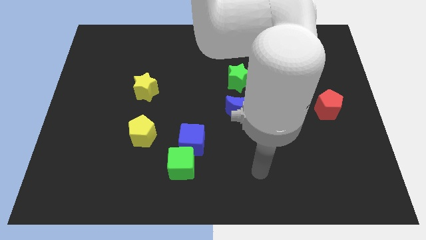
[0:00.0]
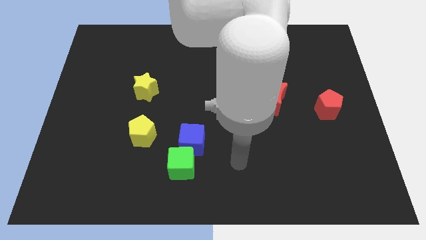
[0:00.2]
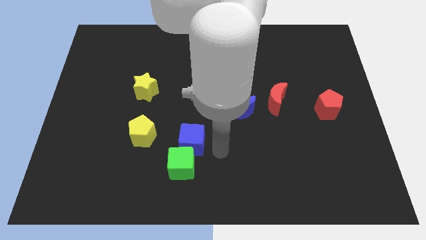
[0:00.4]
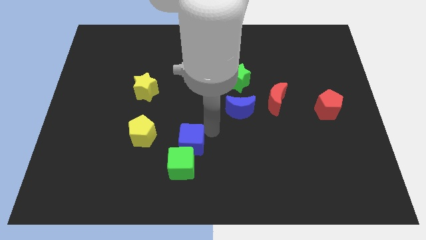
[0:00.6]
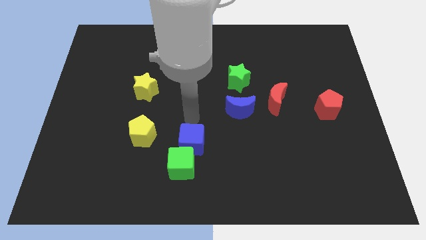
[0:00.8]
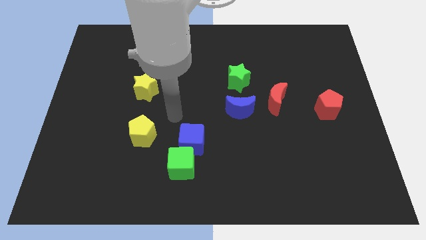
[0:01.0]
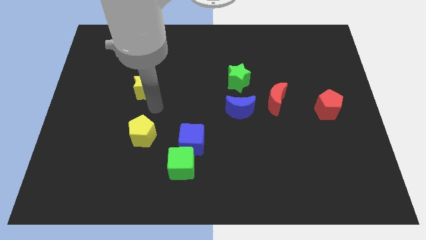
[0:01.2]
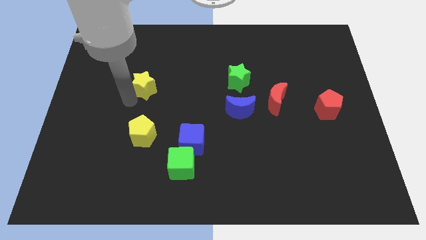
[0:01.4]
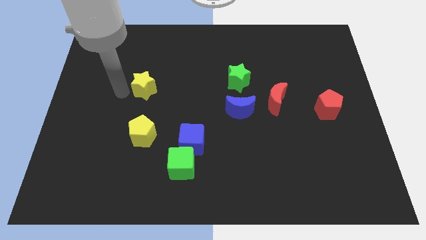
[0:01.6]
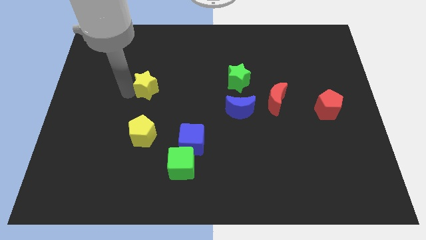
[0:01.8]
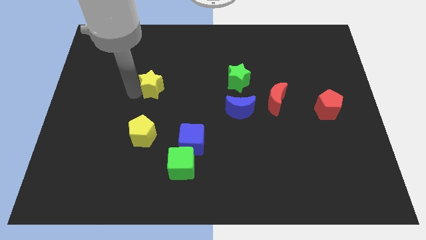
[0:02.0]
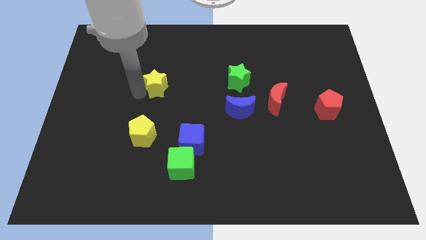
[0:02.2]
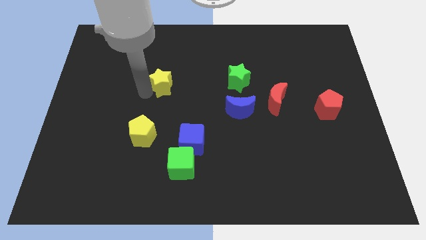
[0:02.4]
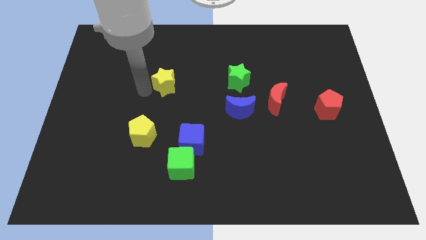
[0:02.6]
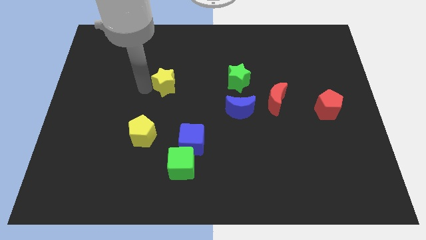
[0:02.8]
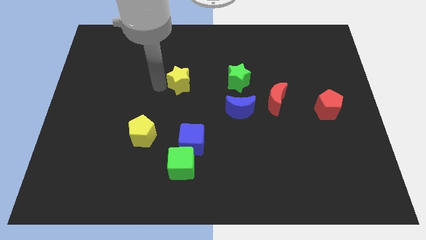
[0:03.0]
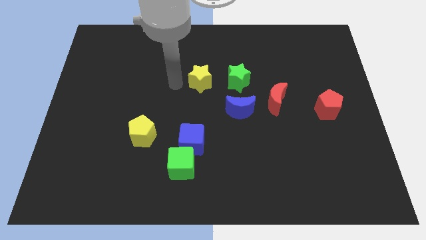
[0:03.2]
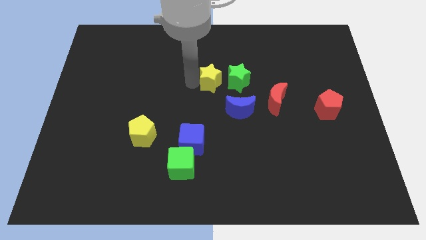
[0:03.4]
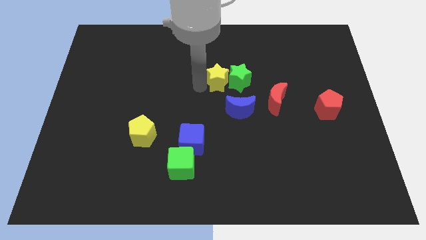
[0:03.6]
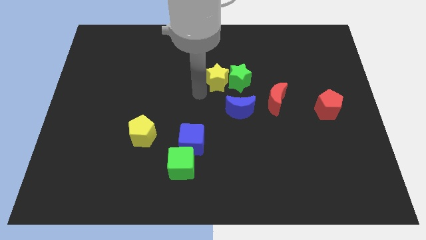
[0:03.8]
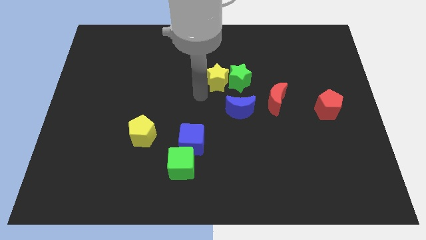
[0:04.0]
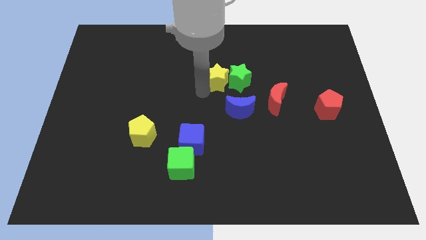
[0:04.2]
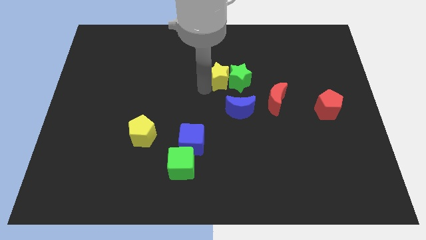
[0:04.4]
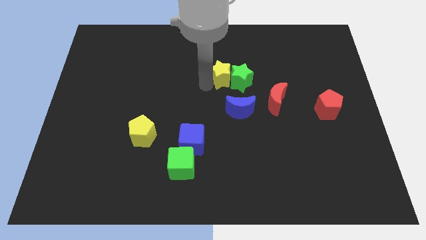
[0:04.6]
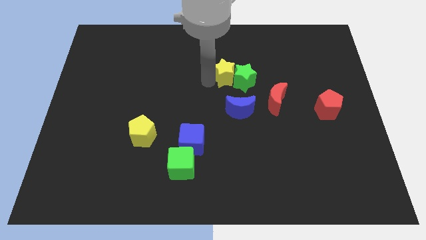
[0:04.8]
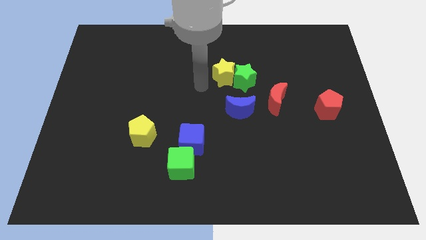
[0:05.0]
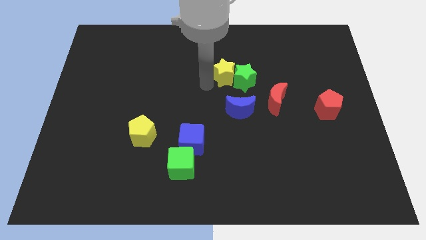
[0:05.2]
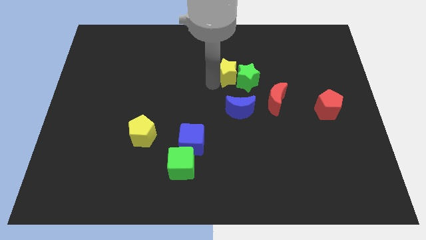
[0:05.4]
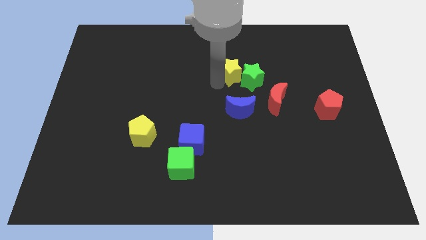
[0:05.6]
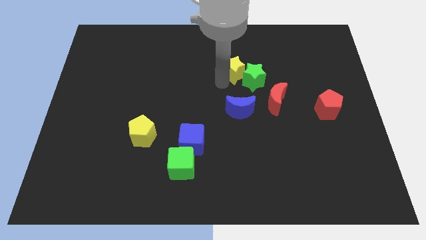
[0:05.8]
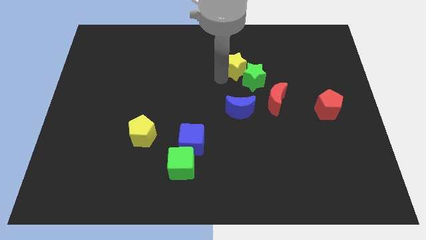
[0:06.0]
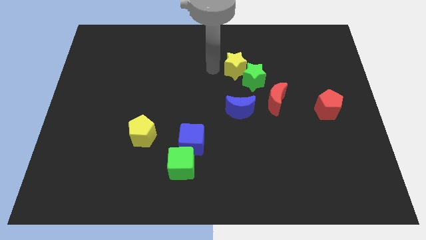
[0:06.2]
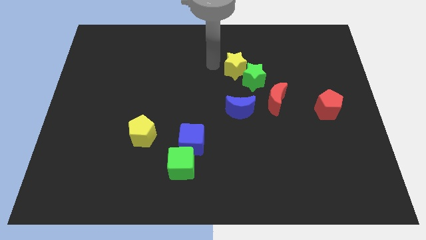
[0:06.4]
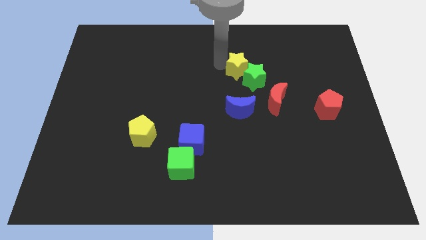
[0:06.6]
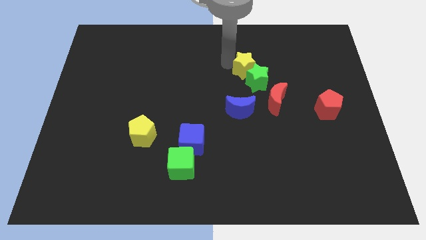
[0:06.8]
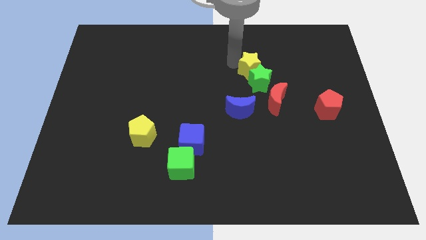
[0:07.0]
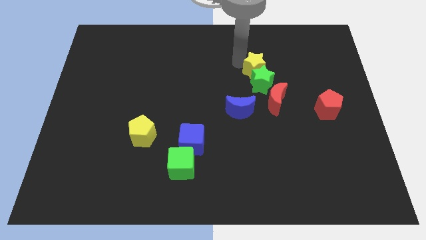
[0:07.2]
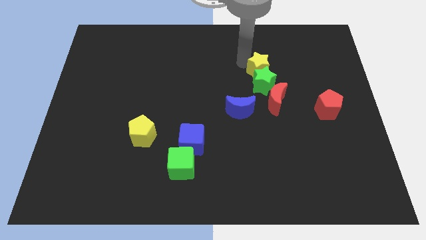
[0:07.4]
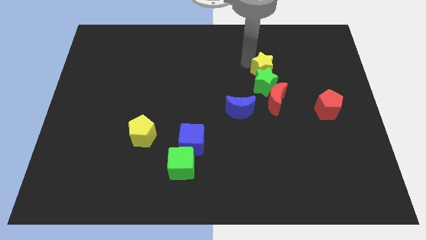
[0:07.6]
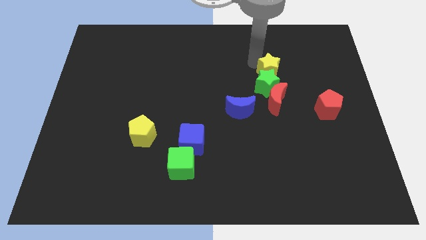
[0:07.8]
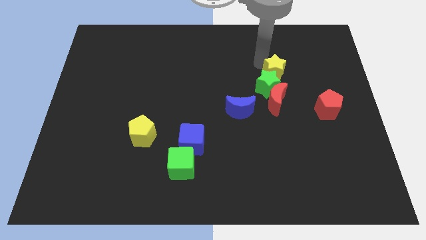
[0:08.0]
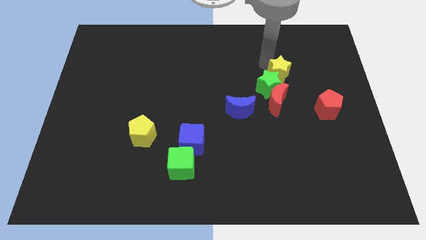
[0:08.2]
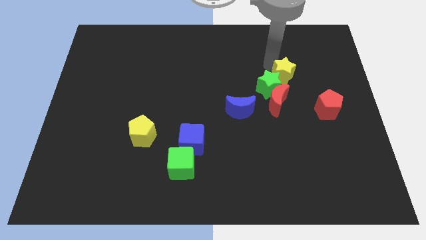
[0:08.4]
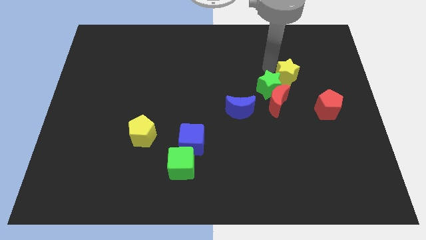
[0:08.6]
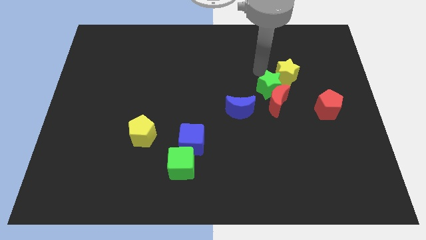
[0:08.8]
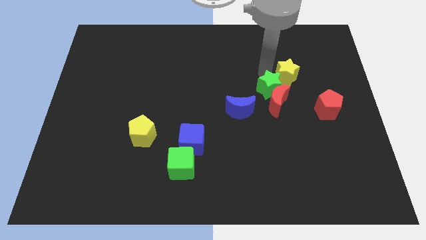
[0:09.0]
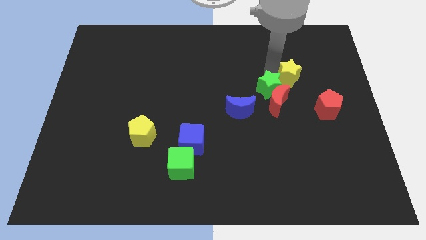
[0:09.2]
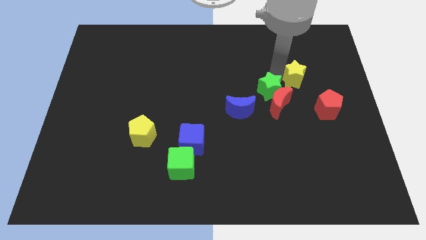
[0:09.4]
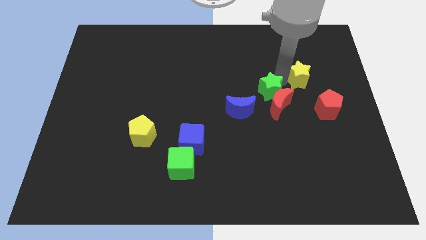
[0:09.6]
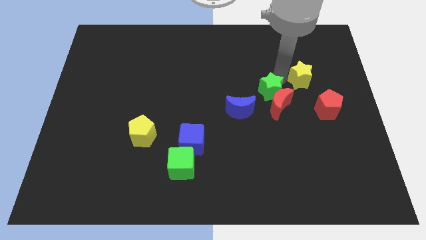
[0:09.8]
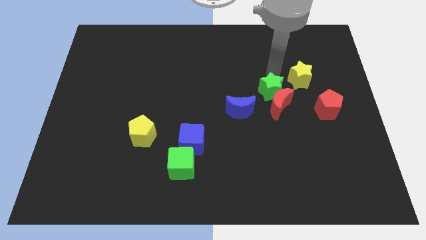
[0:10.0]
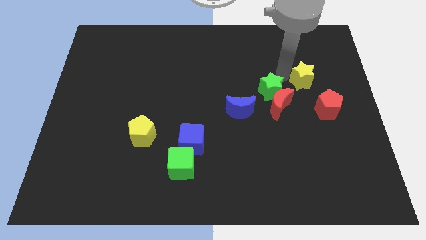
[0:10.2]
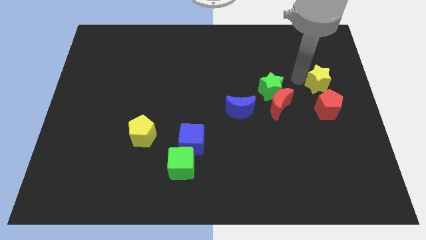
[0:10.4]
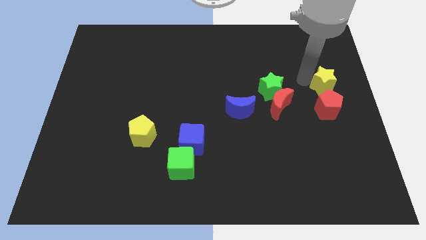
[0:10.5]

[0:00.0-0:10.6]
move the yellow star to the center right
